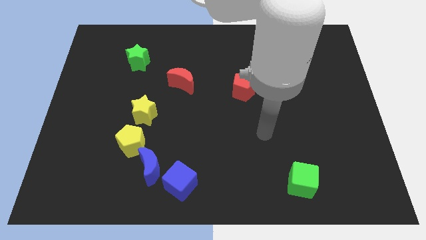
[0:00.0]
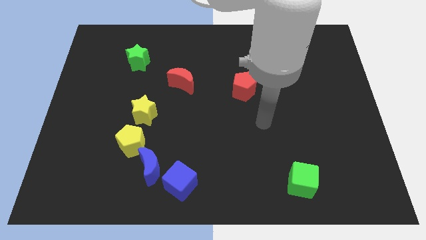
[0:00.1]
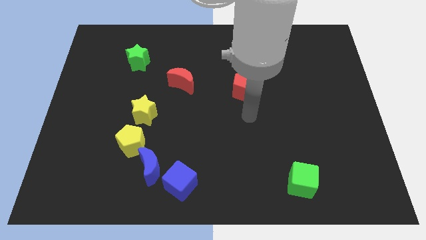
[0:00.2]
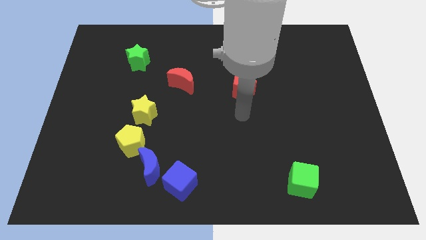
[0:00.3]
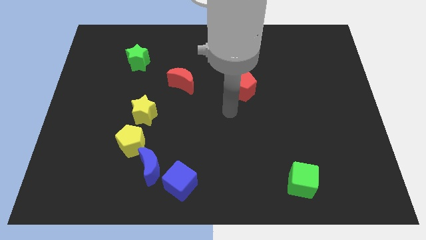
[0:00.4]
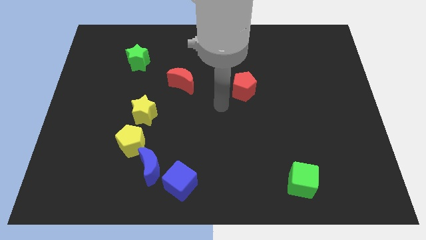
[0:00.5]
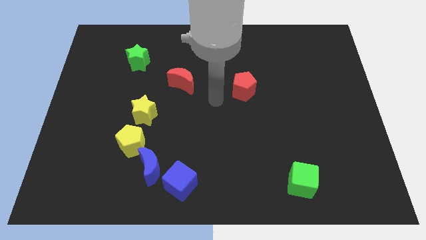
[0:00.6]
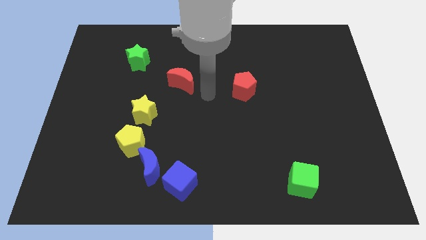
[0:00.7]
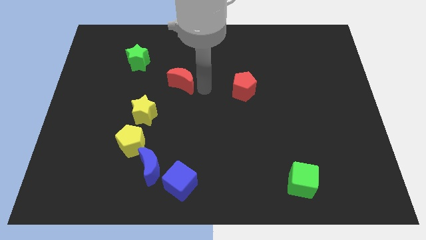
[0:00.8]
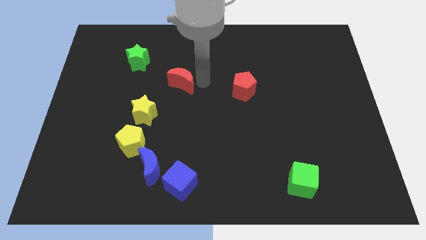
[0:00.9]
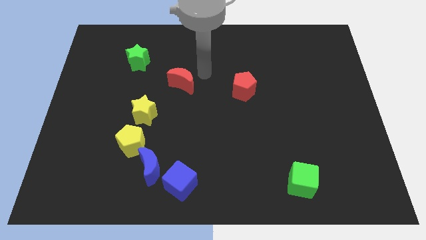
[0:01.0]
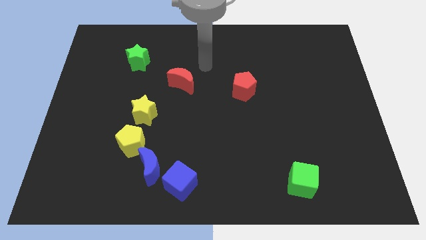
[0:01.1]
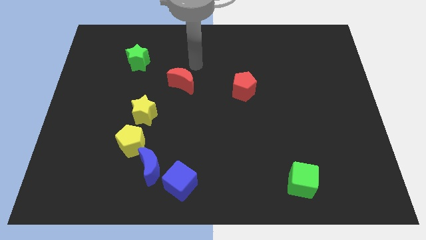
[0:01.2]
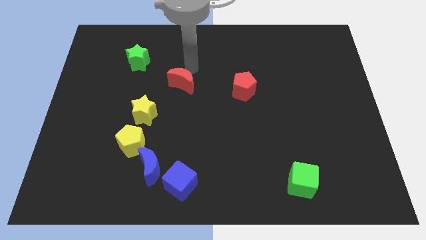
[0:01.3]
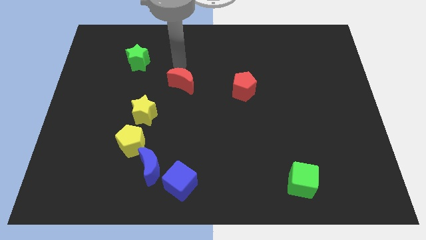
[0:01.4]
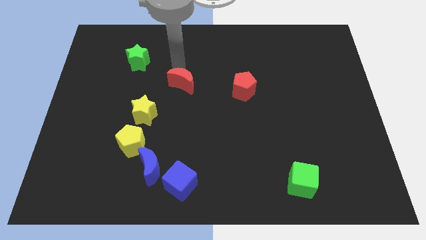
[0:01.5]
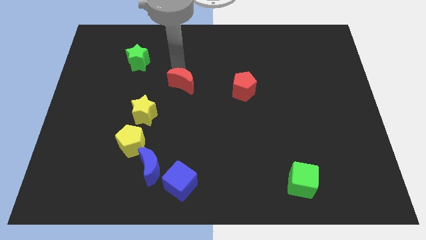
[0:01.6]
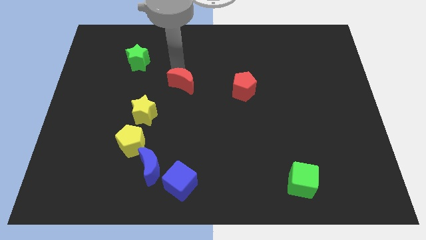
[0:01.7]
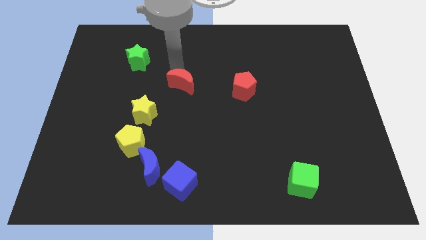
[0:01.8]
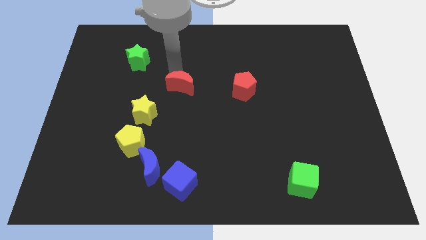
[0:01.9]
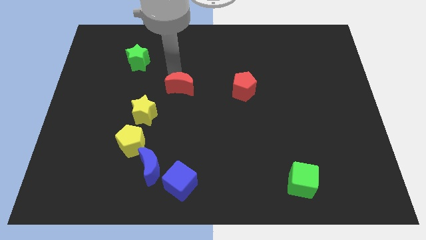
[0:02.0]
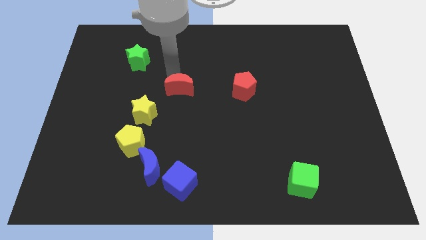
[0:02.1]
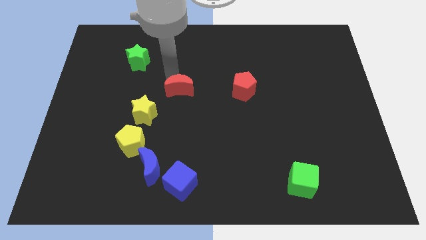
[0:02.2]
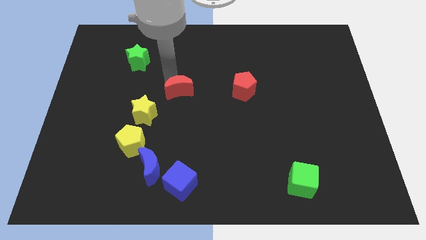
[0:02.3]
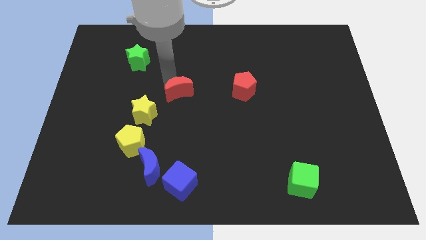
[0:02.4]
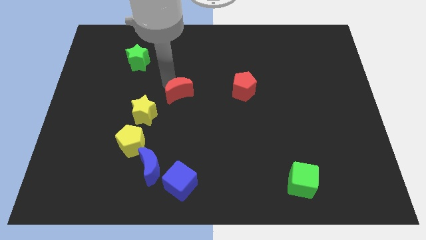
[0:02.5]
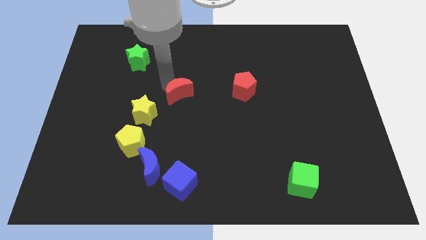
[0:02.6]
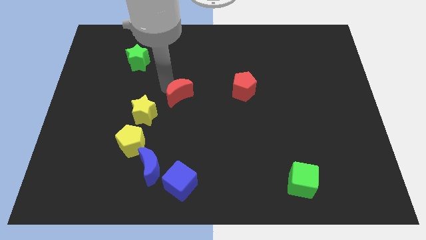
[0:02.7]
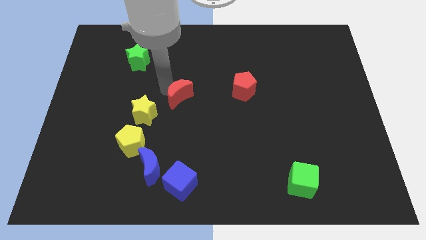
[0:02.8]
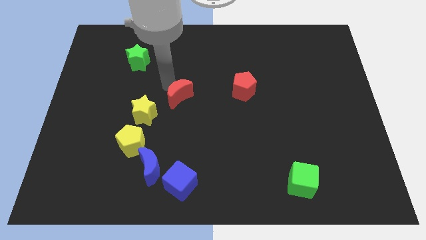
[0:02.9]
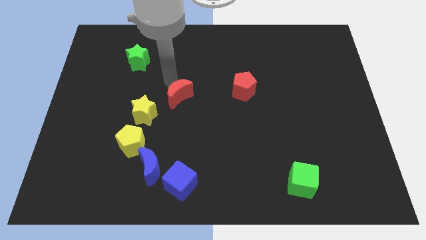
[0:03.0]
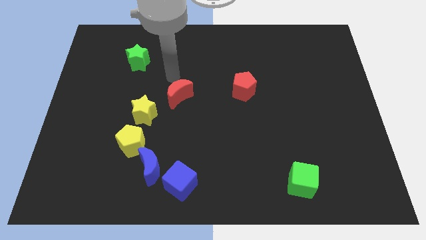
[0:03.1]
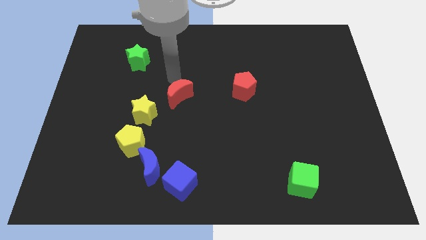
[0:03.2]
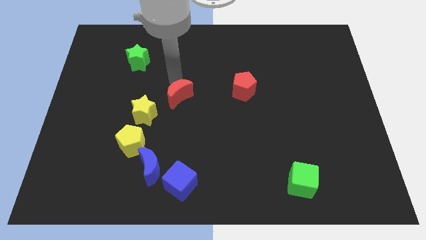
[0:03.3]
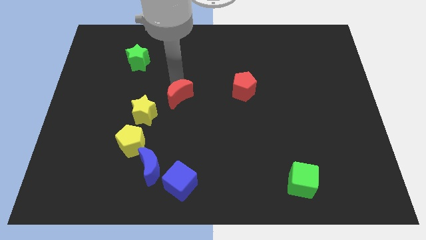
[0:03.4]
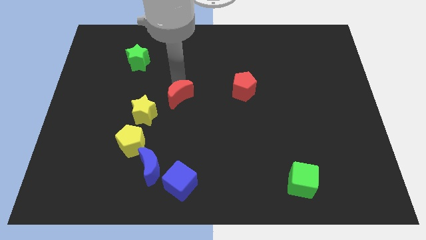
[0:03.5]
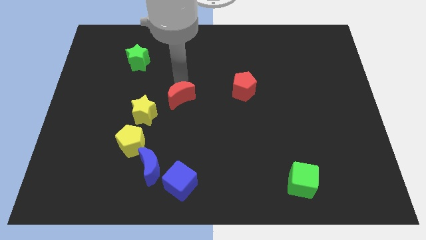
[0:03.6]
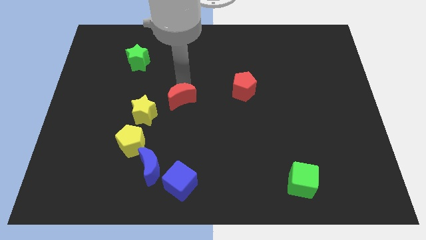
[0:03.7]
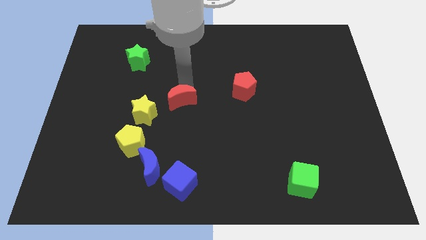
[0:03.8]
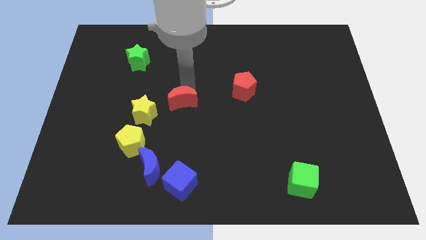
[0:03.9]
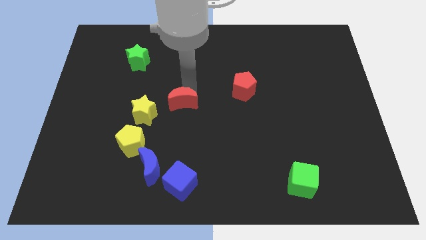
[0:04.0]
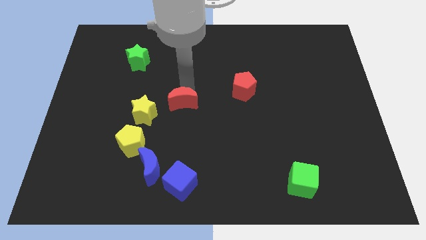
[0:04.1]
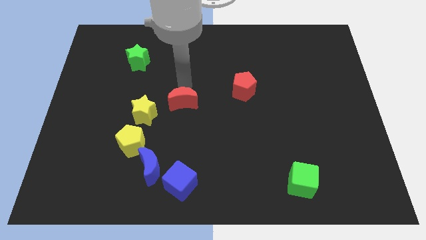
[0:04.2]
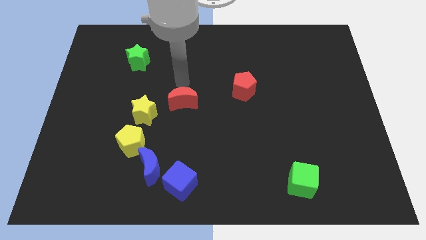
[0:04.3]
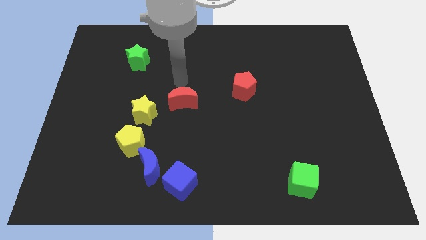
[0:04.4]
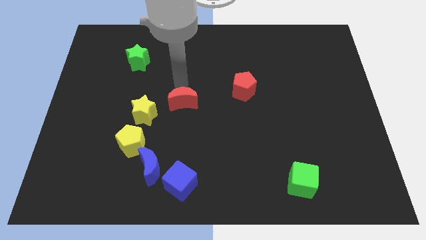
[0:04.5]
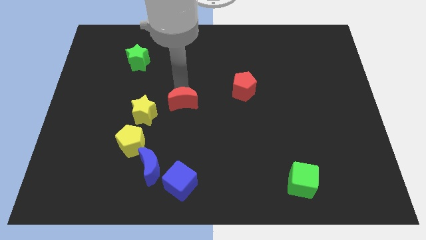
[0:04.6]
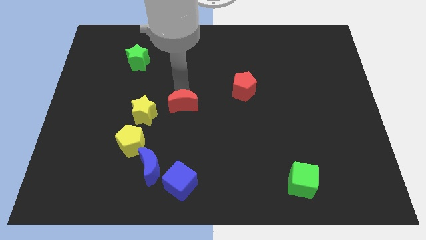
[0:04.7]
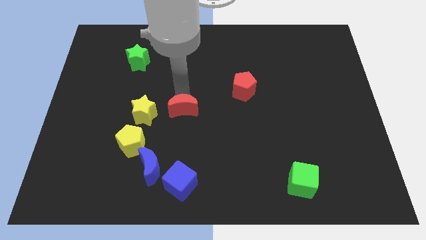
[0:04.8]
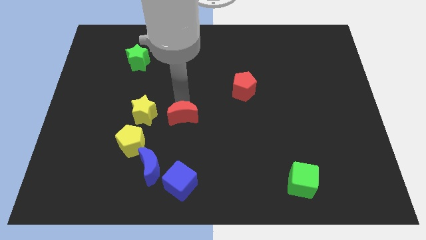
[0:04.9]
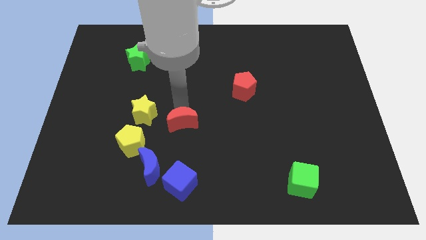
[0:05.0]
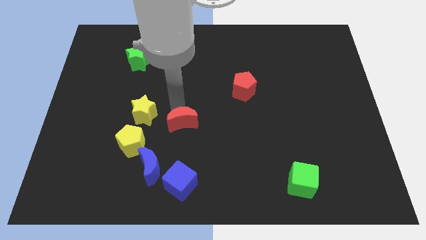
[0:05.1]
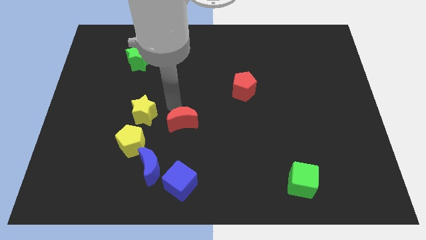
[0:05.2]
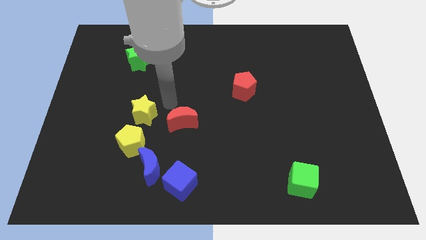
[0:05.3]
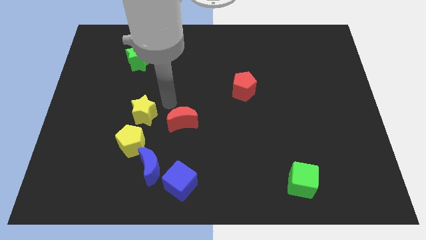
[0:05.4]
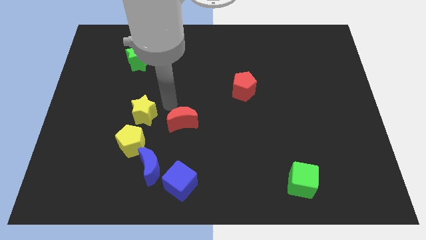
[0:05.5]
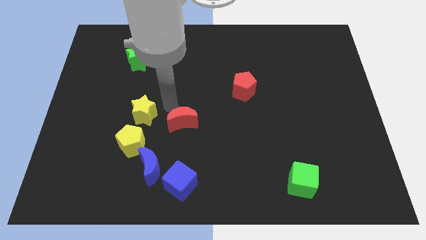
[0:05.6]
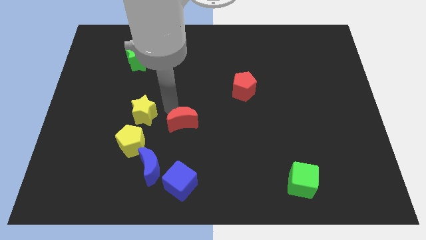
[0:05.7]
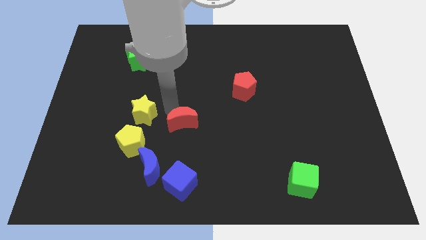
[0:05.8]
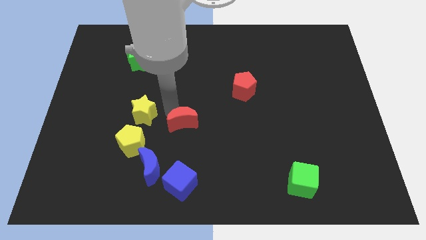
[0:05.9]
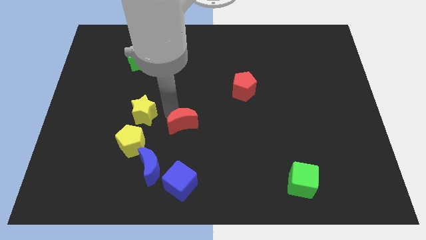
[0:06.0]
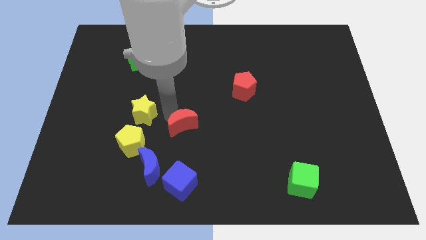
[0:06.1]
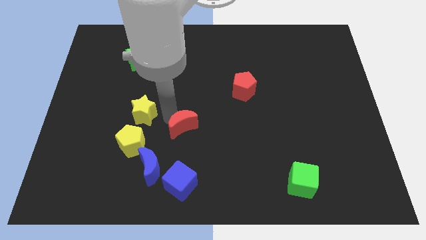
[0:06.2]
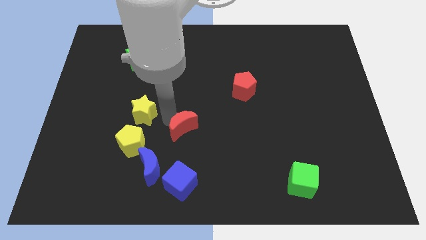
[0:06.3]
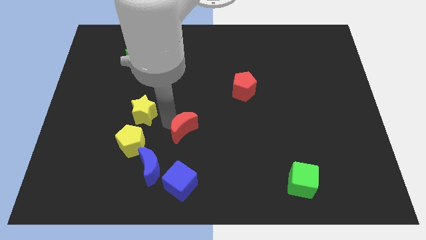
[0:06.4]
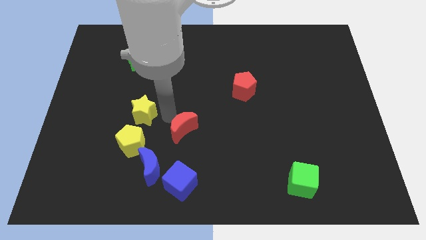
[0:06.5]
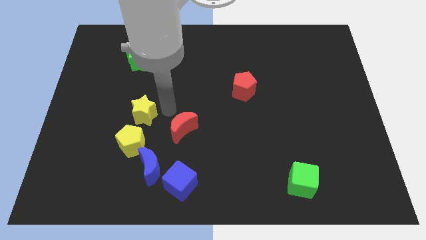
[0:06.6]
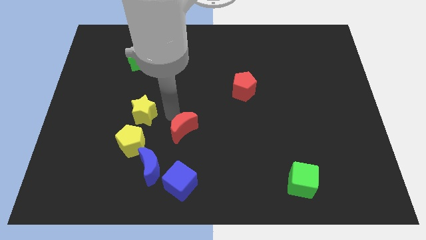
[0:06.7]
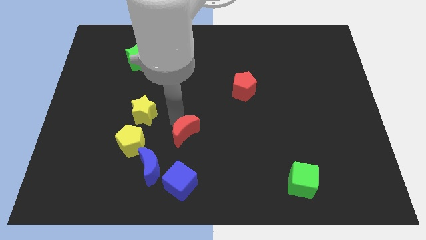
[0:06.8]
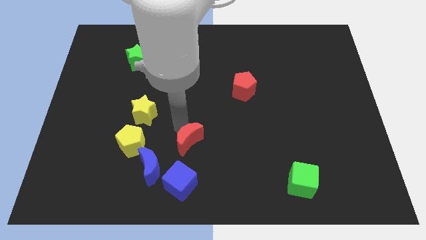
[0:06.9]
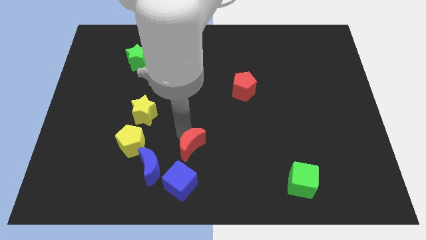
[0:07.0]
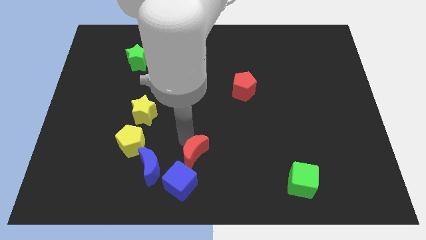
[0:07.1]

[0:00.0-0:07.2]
push the red moon to the top right of the blue cube
